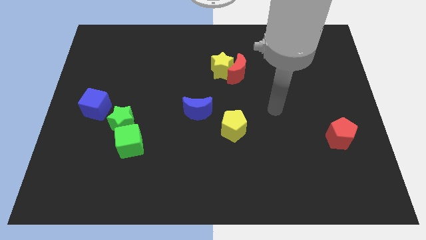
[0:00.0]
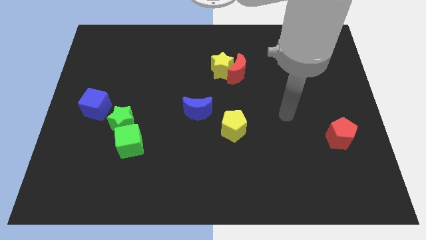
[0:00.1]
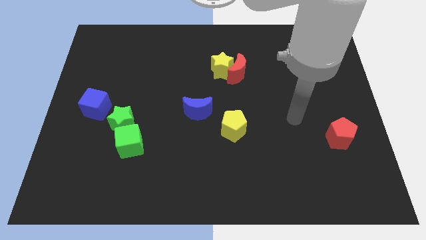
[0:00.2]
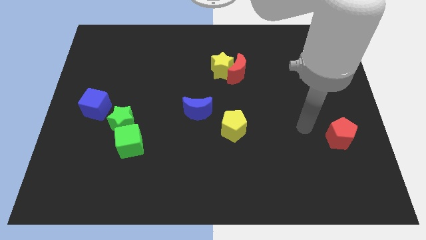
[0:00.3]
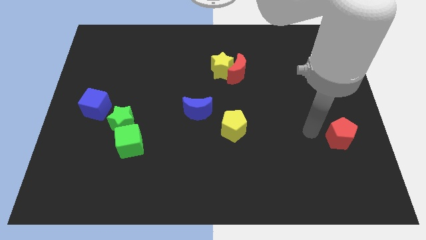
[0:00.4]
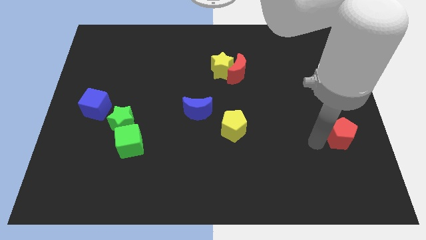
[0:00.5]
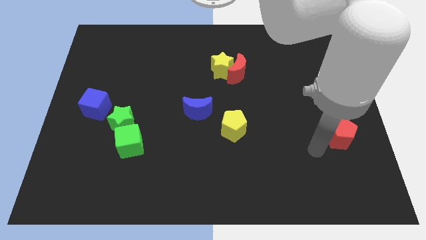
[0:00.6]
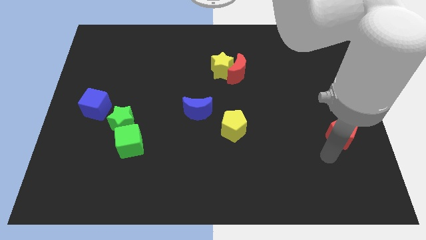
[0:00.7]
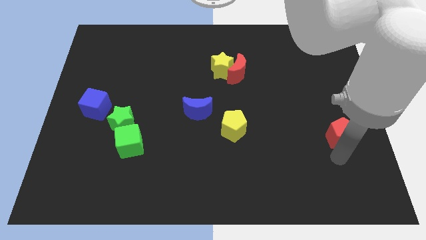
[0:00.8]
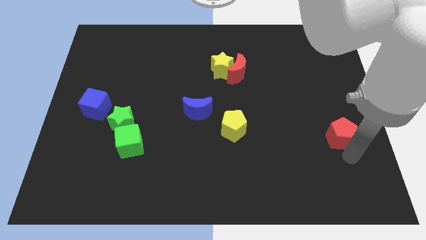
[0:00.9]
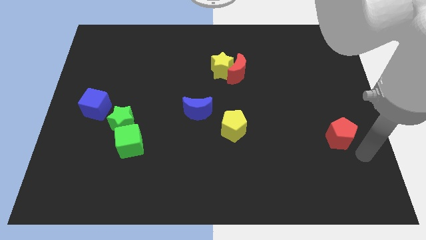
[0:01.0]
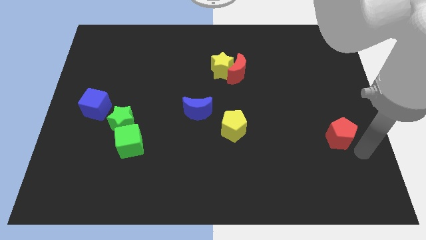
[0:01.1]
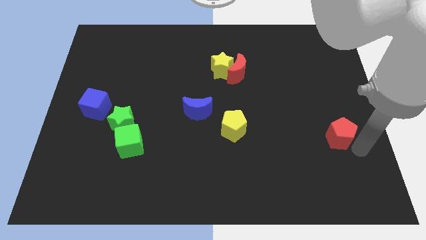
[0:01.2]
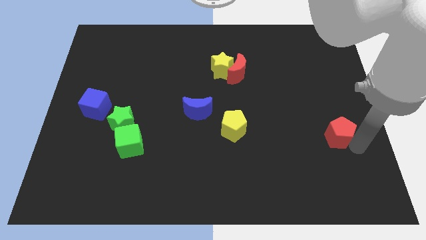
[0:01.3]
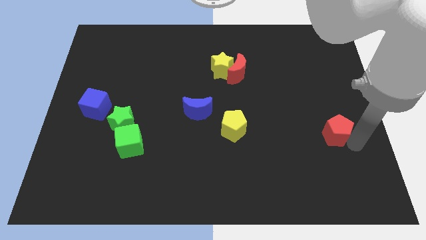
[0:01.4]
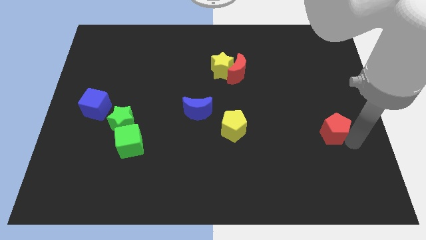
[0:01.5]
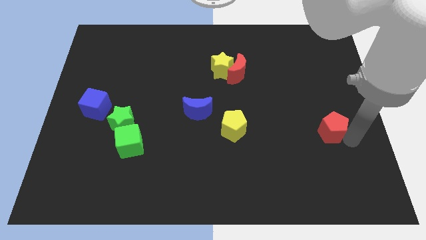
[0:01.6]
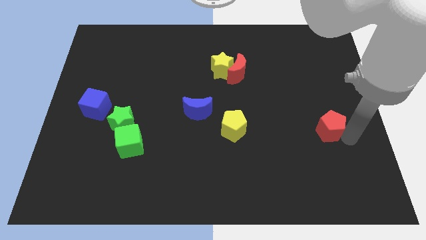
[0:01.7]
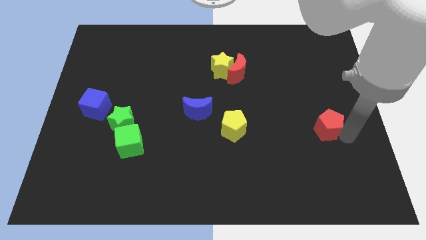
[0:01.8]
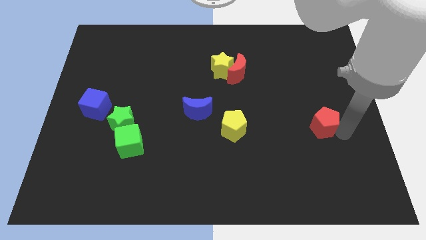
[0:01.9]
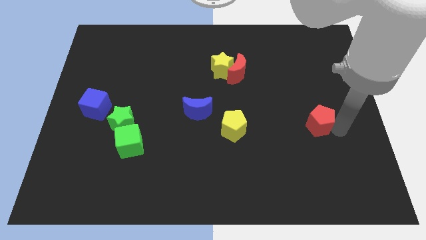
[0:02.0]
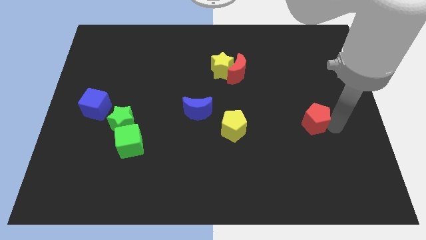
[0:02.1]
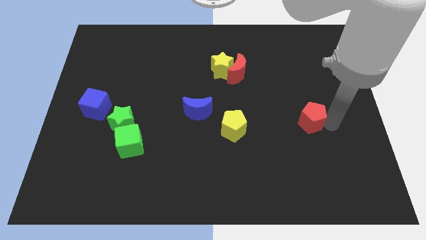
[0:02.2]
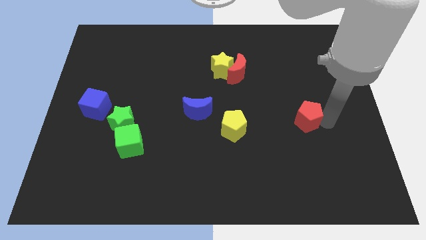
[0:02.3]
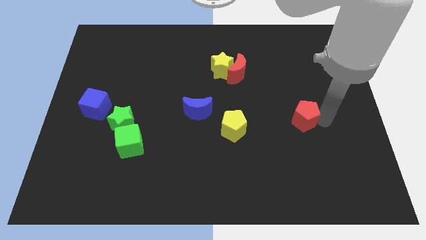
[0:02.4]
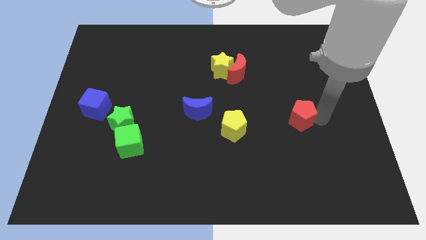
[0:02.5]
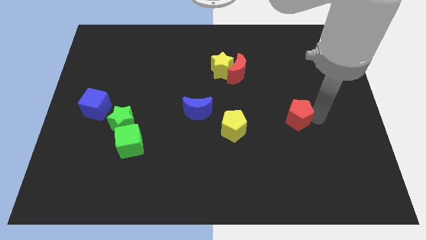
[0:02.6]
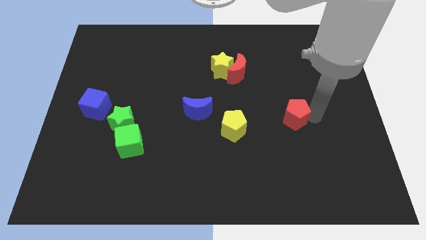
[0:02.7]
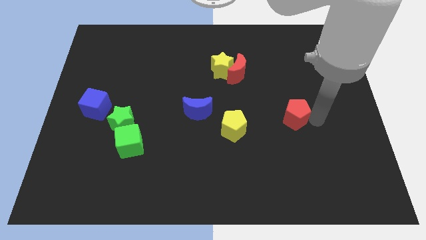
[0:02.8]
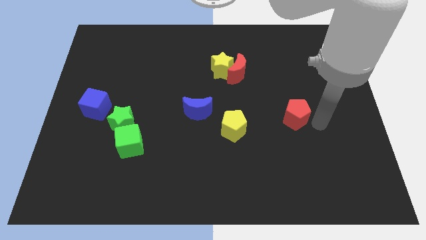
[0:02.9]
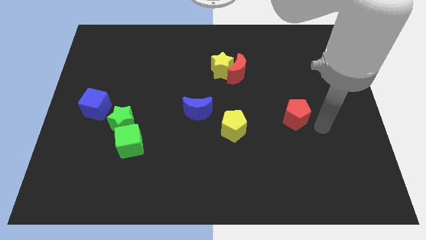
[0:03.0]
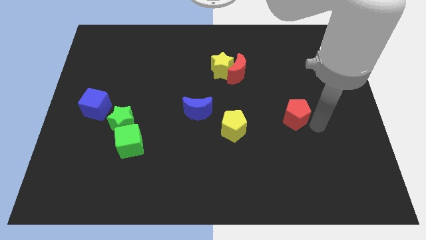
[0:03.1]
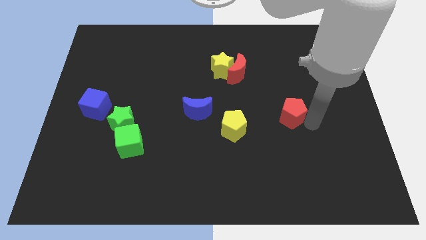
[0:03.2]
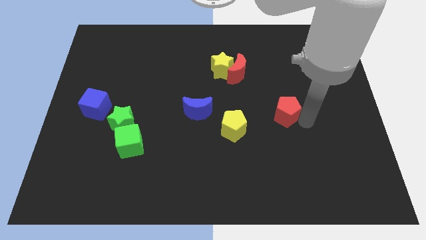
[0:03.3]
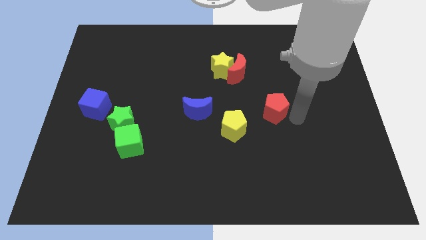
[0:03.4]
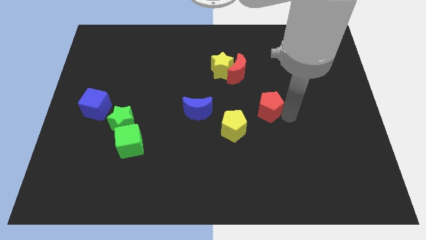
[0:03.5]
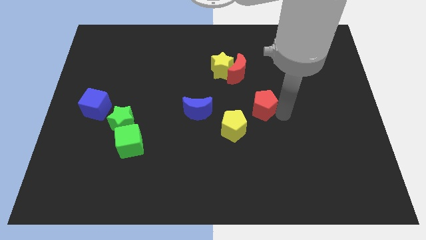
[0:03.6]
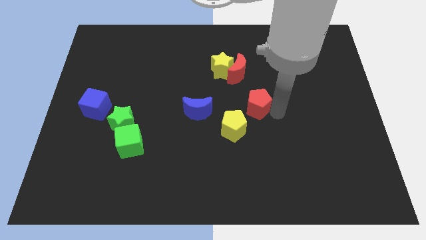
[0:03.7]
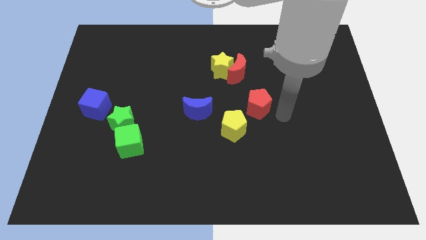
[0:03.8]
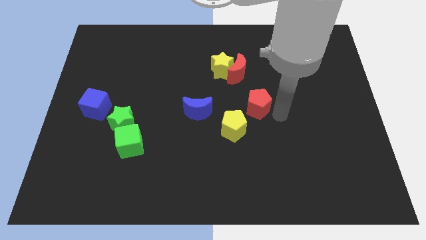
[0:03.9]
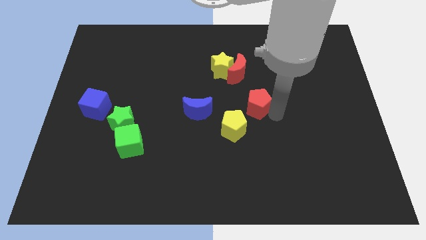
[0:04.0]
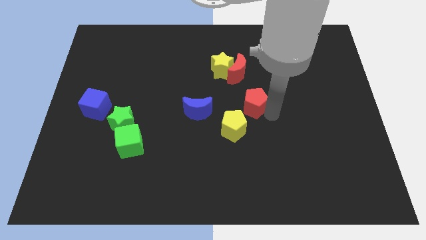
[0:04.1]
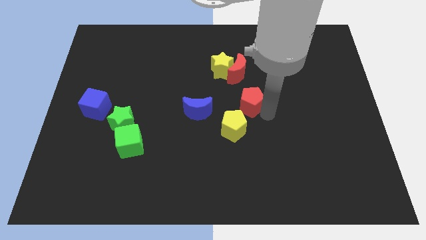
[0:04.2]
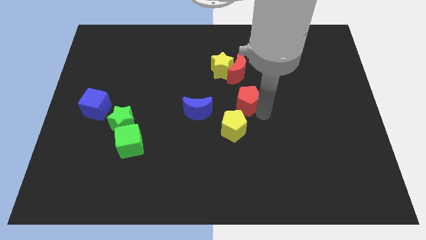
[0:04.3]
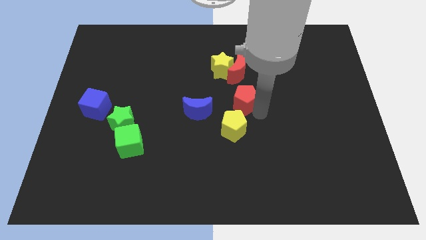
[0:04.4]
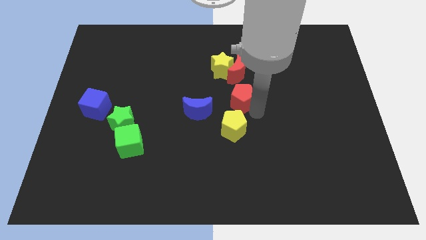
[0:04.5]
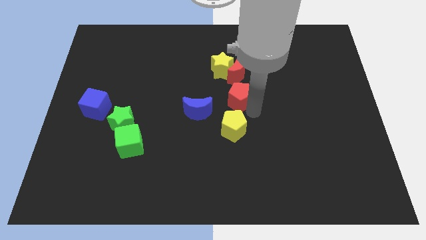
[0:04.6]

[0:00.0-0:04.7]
put the red pentagon to the top right side of the blue moon

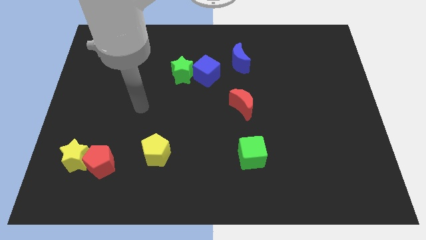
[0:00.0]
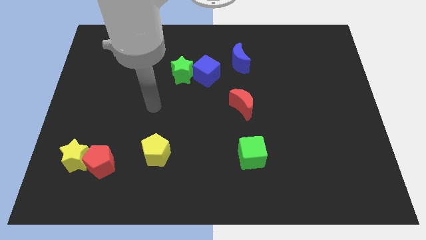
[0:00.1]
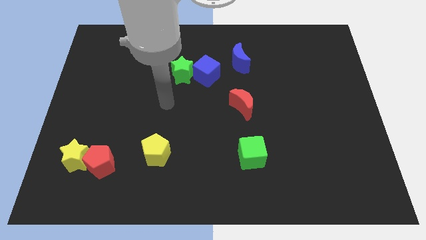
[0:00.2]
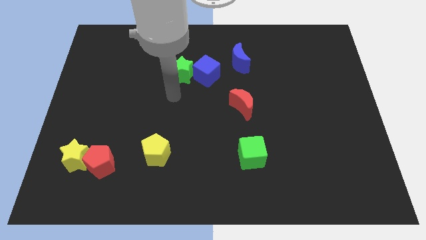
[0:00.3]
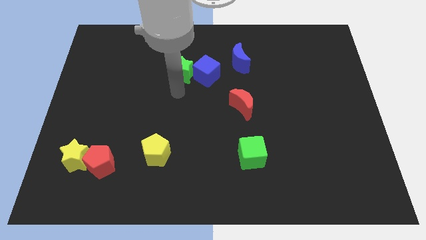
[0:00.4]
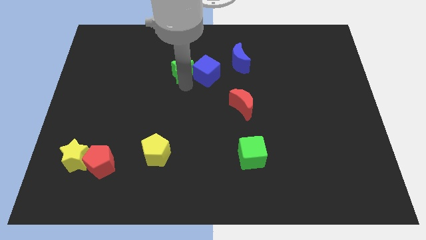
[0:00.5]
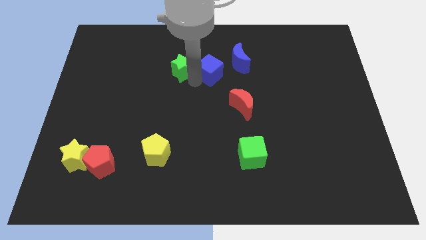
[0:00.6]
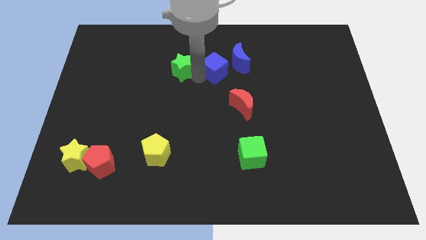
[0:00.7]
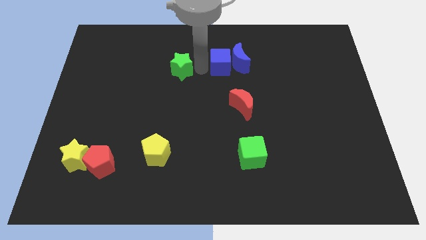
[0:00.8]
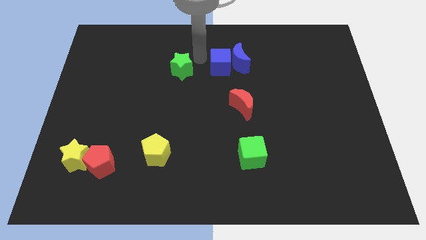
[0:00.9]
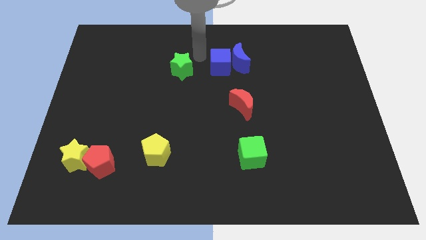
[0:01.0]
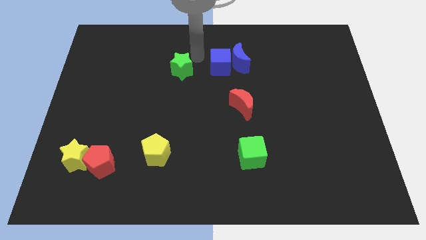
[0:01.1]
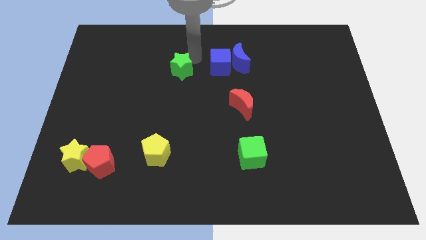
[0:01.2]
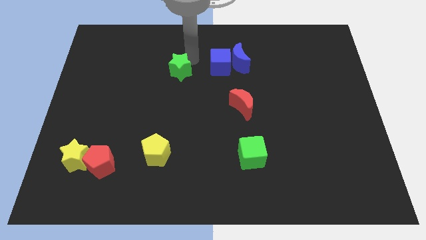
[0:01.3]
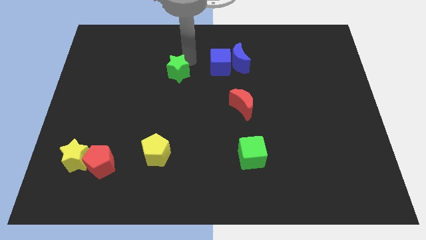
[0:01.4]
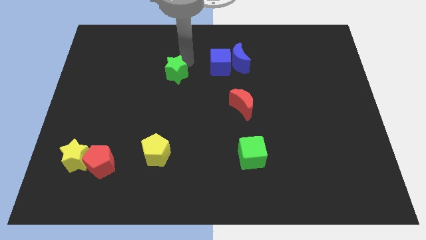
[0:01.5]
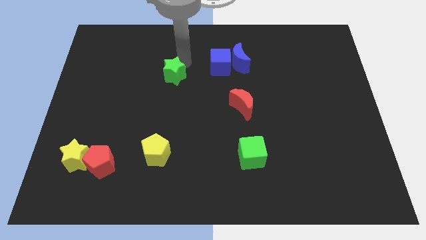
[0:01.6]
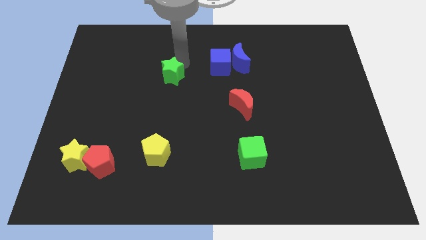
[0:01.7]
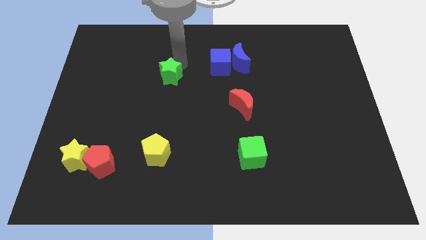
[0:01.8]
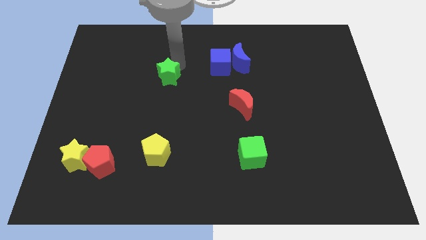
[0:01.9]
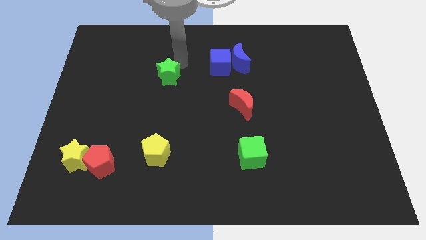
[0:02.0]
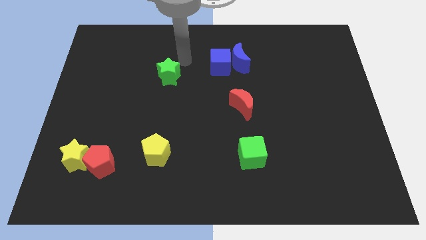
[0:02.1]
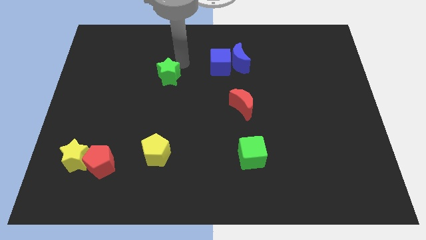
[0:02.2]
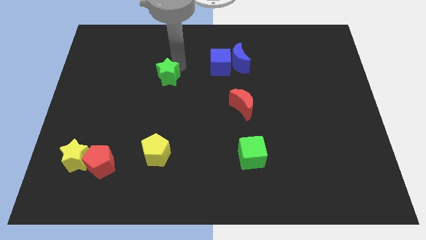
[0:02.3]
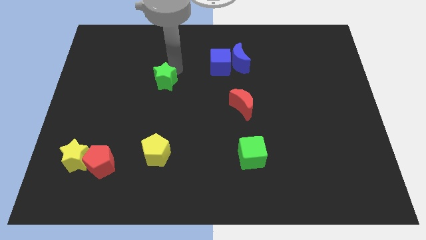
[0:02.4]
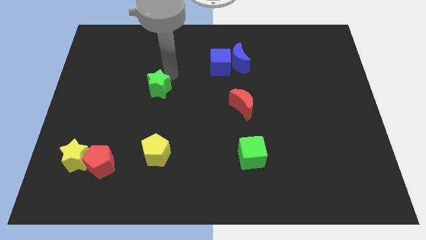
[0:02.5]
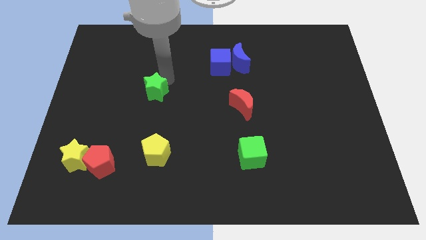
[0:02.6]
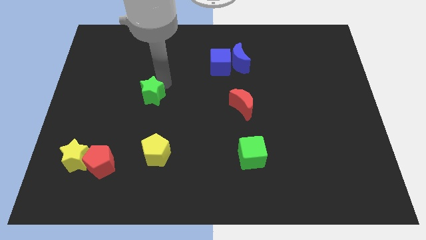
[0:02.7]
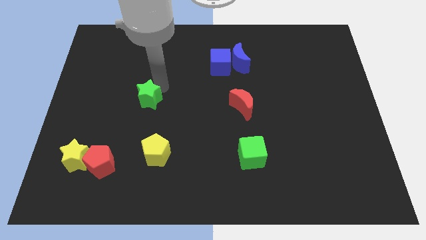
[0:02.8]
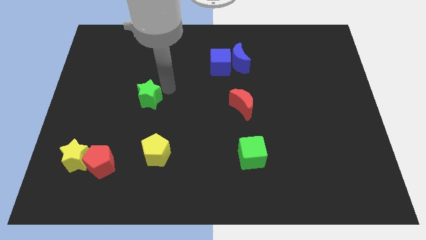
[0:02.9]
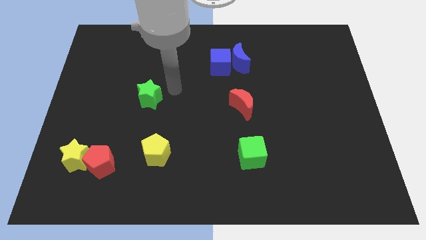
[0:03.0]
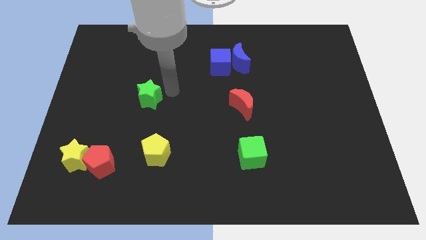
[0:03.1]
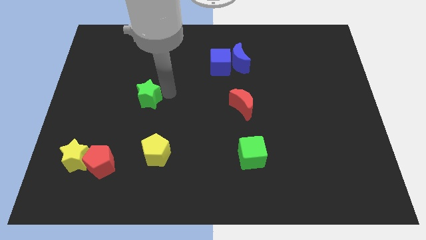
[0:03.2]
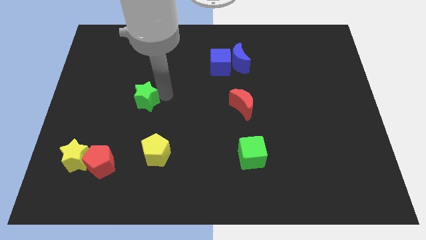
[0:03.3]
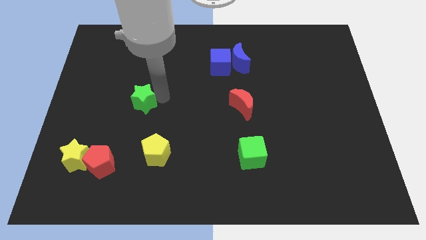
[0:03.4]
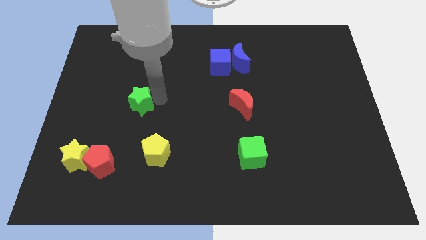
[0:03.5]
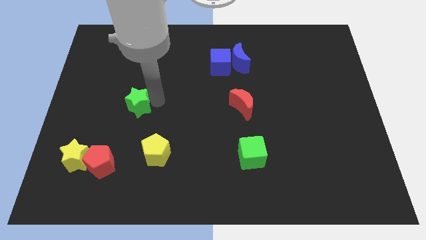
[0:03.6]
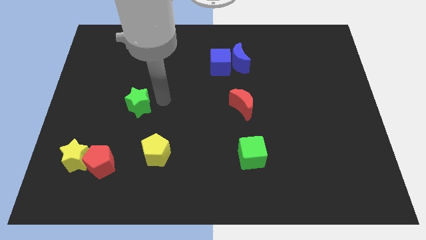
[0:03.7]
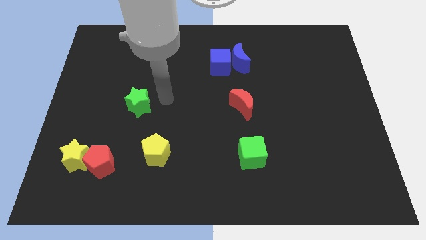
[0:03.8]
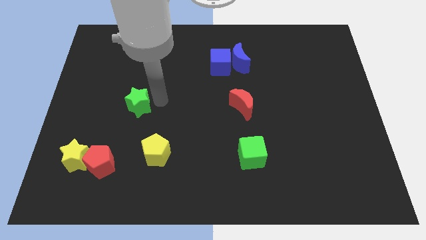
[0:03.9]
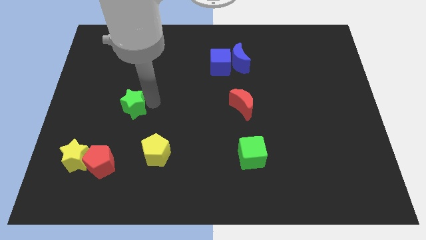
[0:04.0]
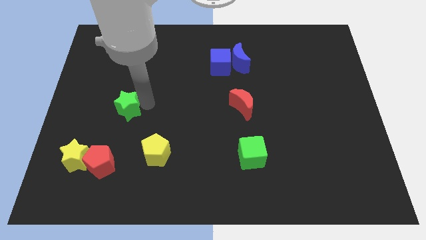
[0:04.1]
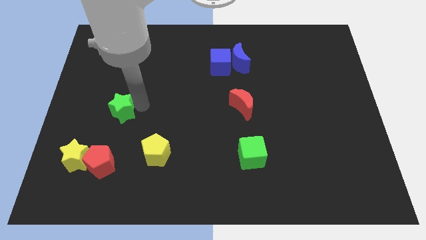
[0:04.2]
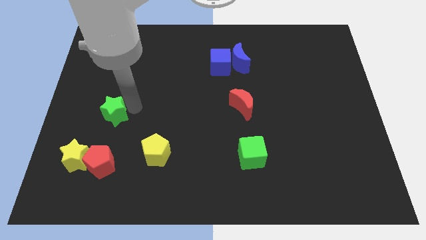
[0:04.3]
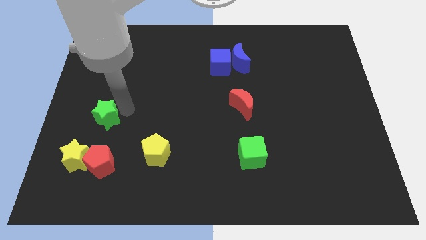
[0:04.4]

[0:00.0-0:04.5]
put the green star to the top of the yellow star
